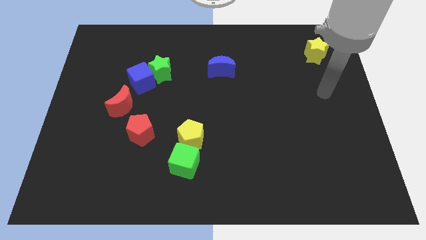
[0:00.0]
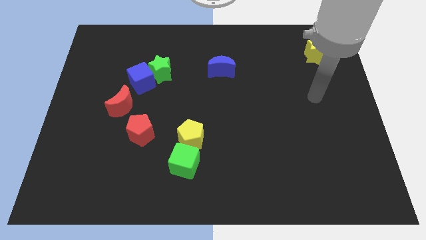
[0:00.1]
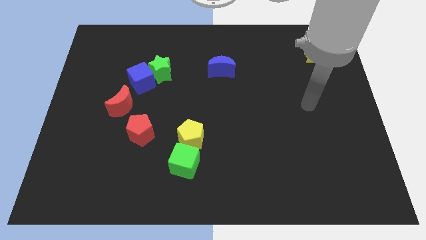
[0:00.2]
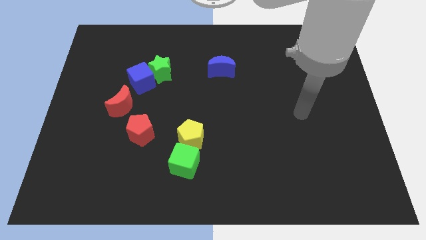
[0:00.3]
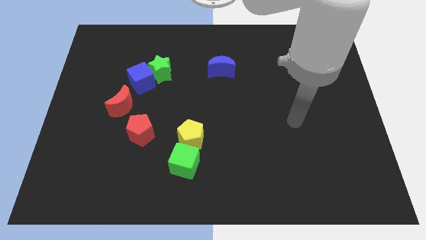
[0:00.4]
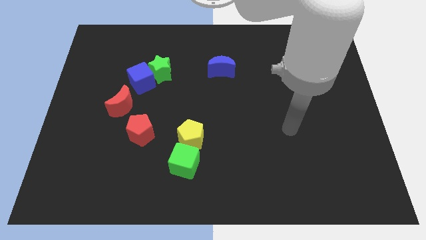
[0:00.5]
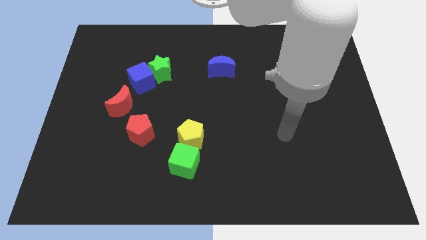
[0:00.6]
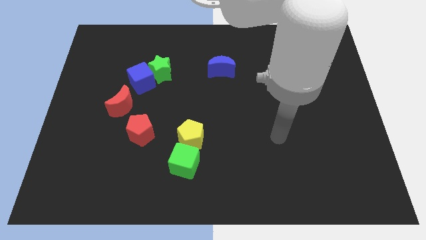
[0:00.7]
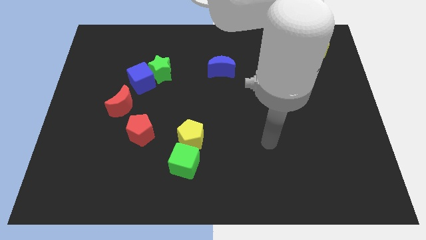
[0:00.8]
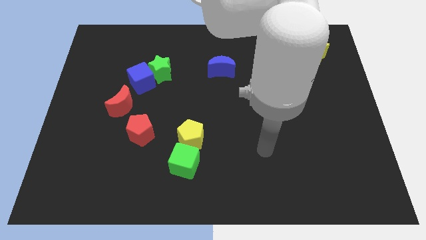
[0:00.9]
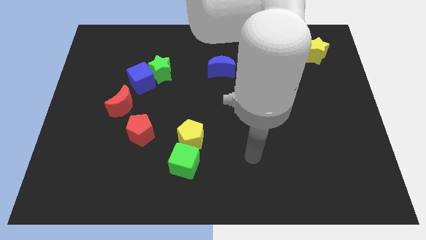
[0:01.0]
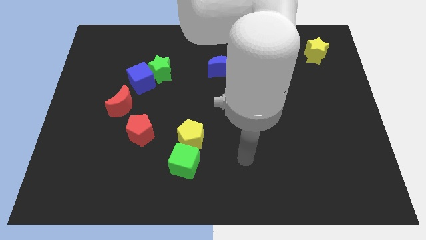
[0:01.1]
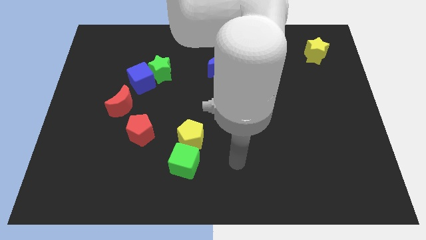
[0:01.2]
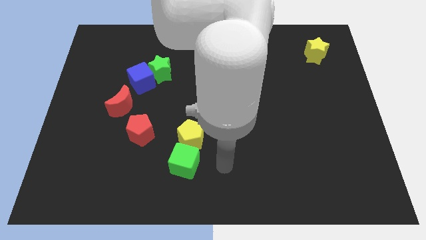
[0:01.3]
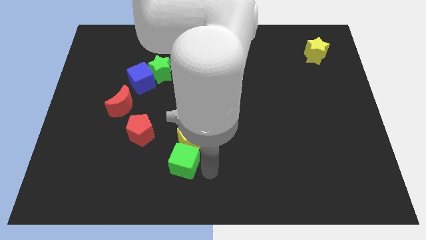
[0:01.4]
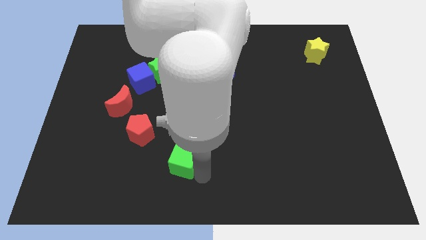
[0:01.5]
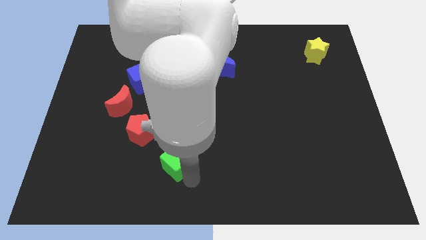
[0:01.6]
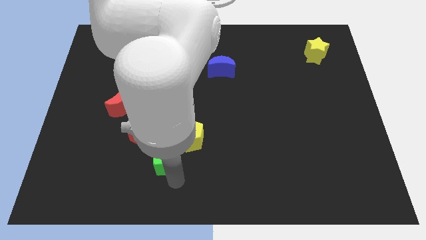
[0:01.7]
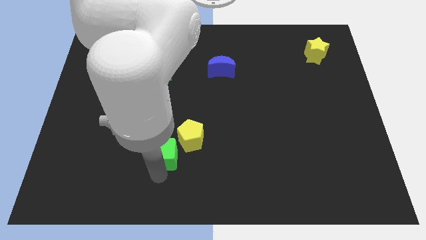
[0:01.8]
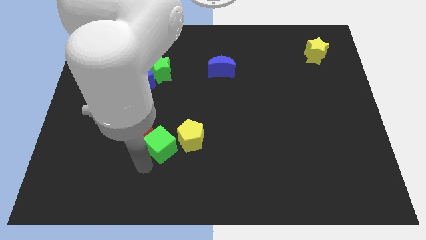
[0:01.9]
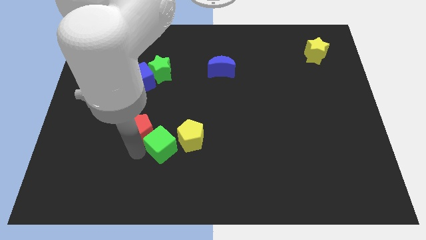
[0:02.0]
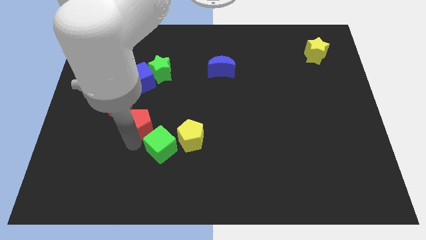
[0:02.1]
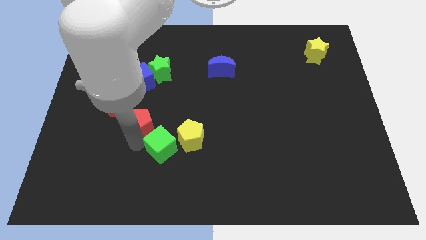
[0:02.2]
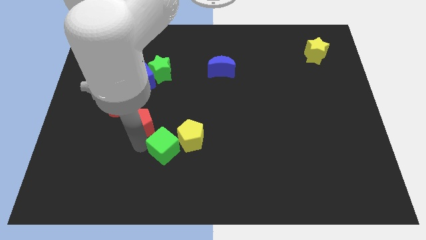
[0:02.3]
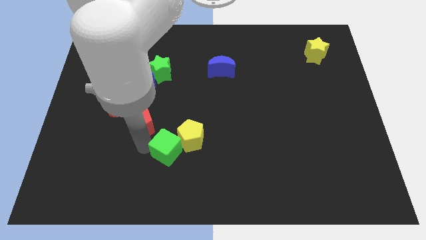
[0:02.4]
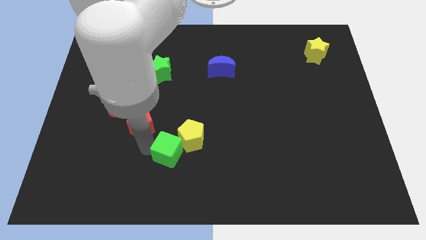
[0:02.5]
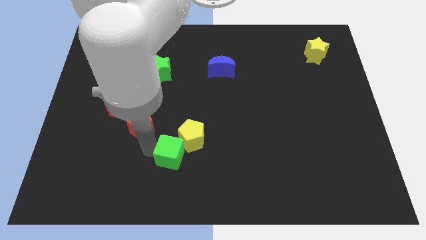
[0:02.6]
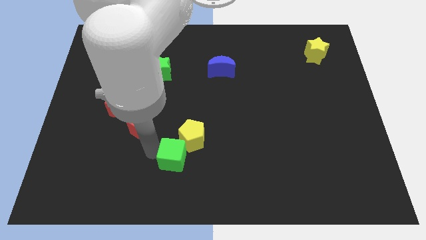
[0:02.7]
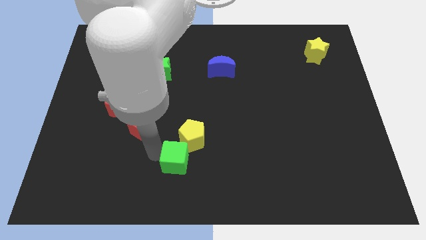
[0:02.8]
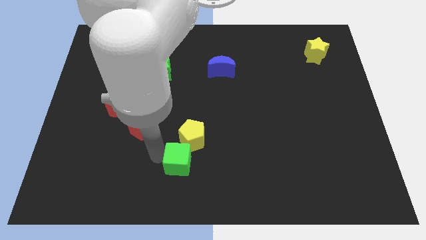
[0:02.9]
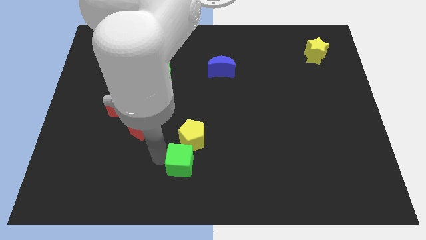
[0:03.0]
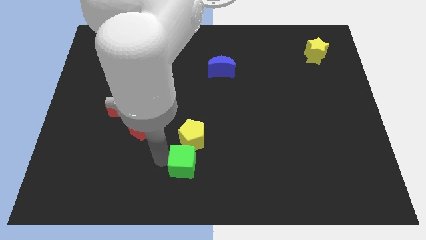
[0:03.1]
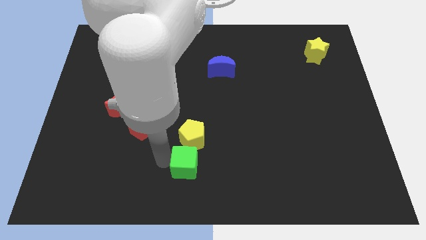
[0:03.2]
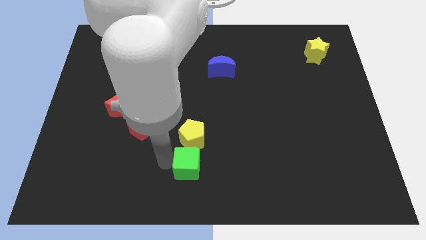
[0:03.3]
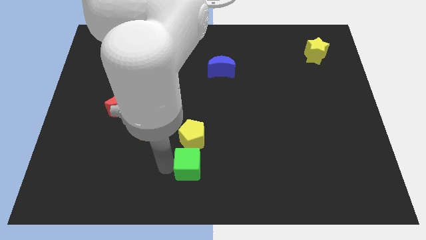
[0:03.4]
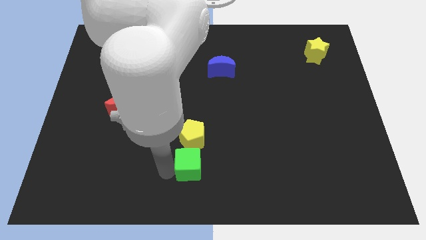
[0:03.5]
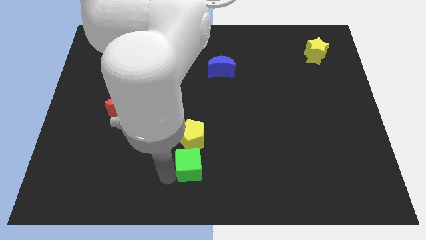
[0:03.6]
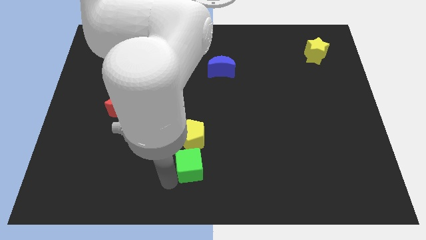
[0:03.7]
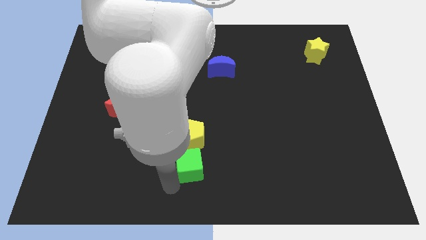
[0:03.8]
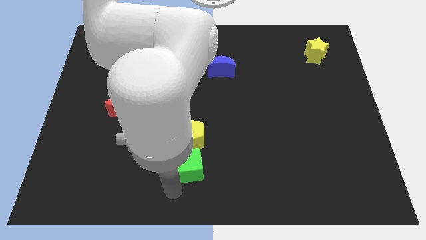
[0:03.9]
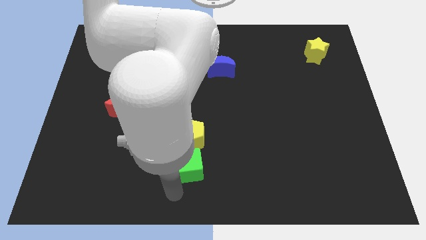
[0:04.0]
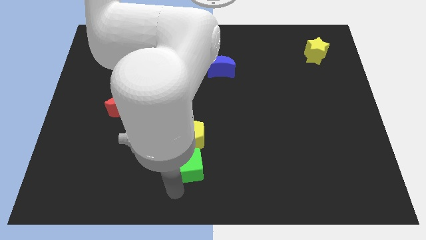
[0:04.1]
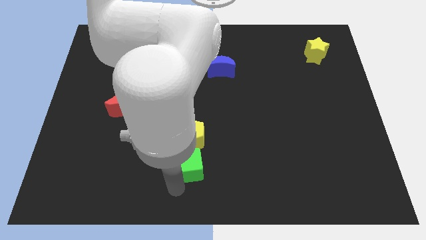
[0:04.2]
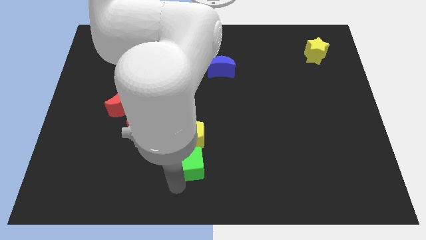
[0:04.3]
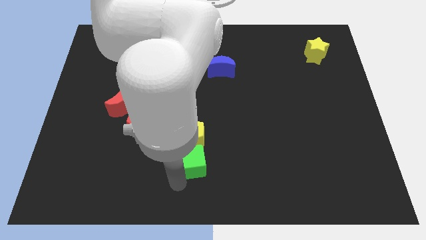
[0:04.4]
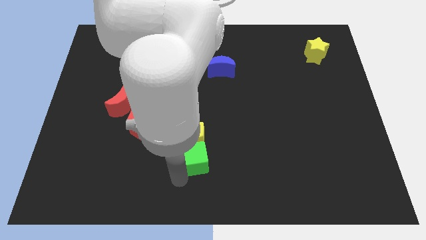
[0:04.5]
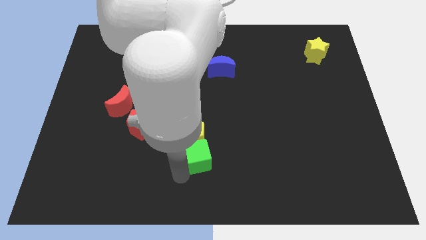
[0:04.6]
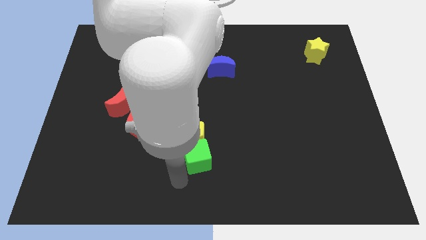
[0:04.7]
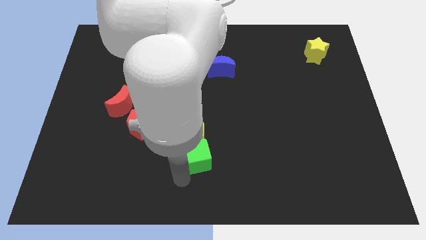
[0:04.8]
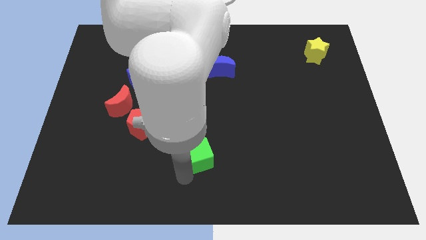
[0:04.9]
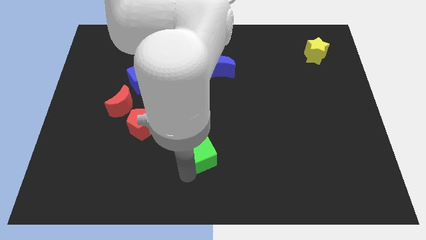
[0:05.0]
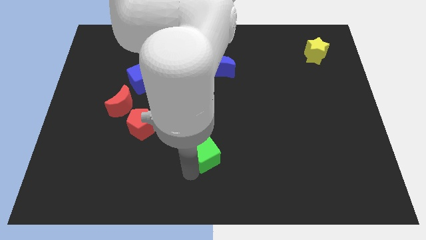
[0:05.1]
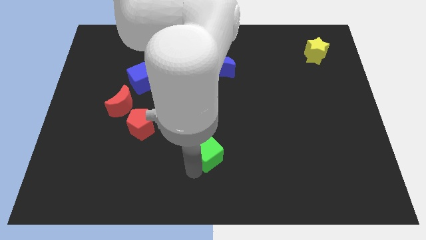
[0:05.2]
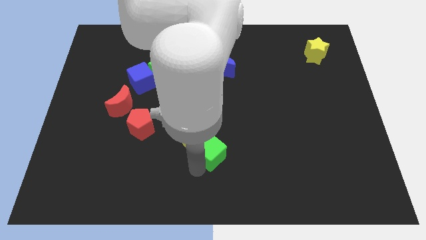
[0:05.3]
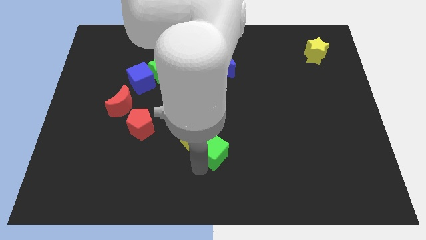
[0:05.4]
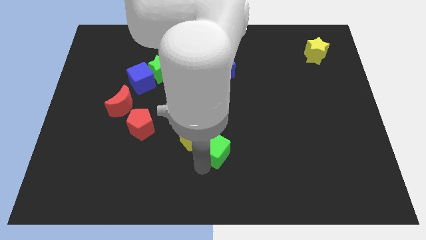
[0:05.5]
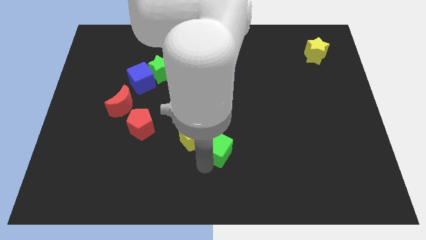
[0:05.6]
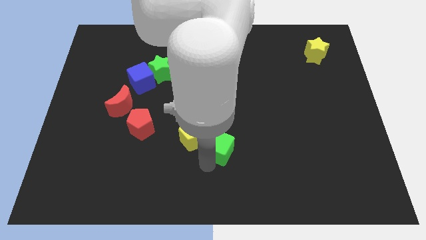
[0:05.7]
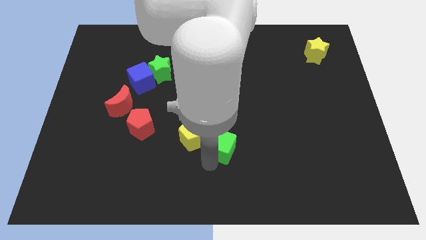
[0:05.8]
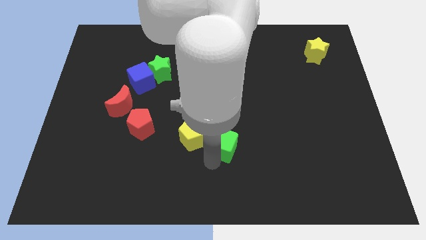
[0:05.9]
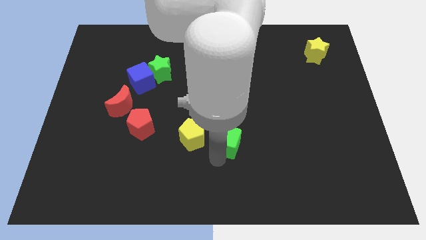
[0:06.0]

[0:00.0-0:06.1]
push the green cube to the middle

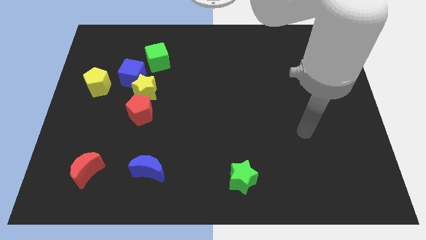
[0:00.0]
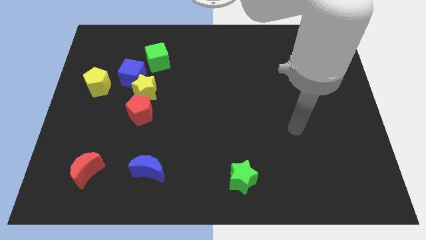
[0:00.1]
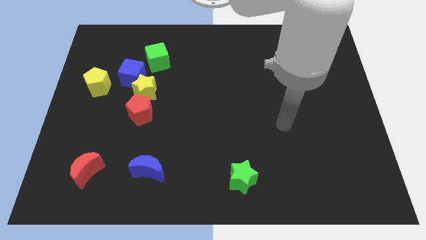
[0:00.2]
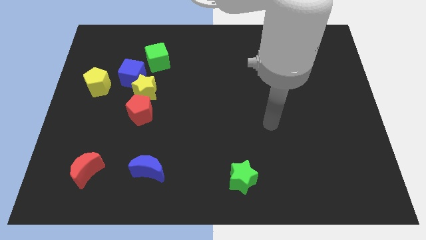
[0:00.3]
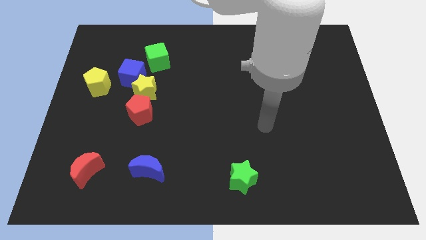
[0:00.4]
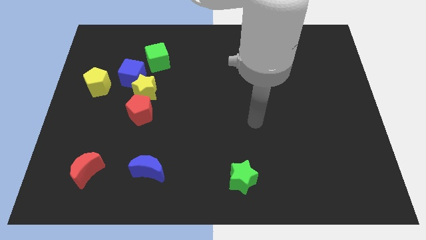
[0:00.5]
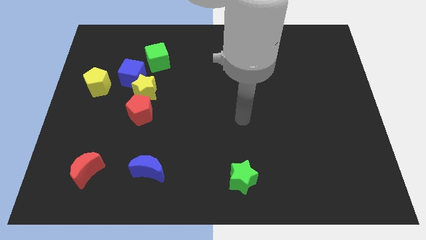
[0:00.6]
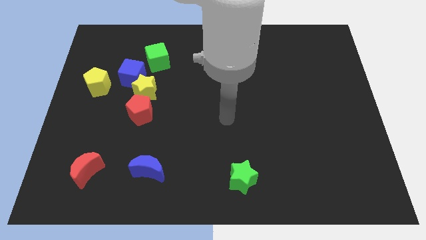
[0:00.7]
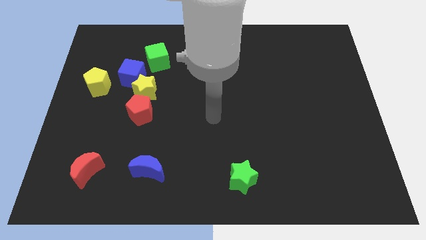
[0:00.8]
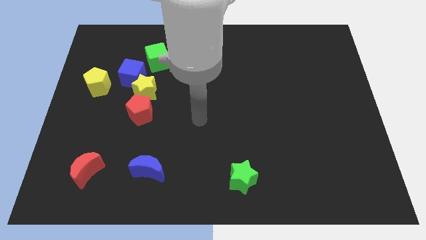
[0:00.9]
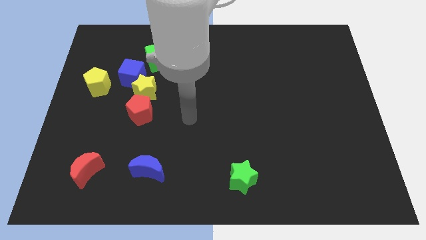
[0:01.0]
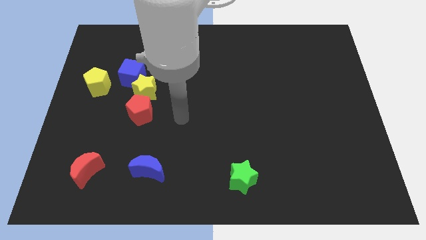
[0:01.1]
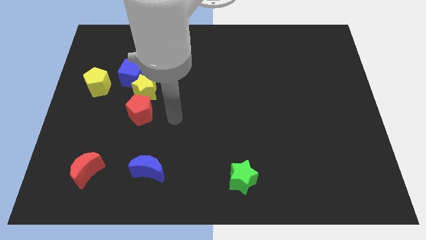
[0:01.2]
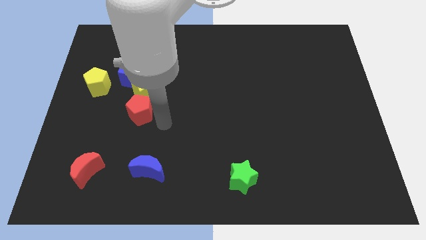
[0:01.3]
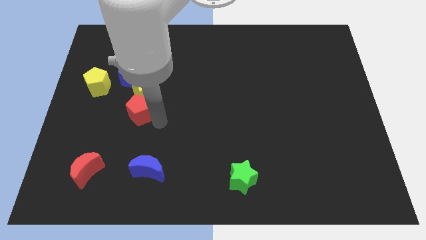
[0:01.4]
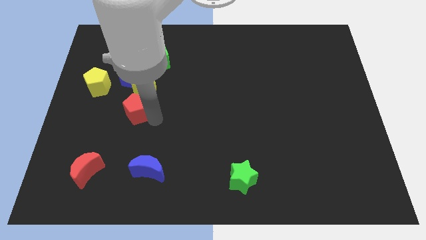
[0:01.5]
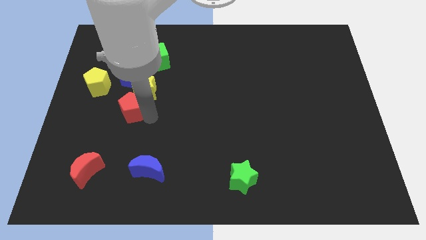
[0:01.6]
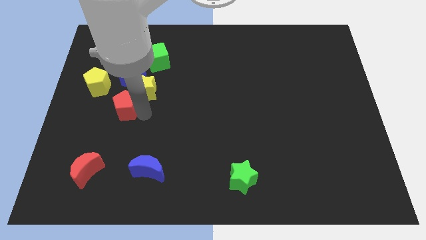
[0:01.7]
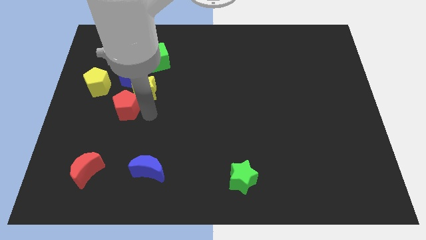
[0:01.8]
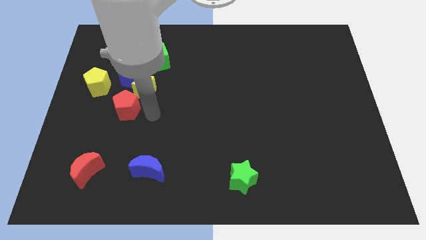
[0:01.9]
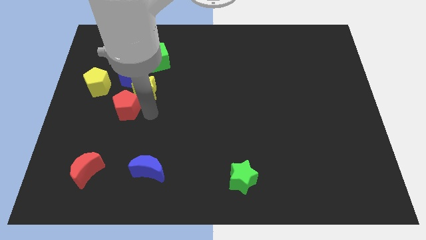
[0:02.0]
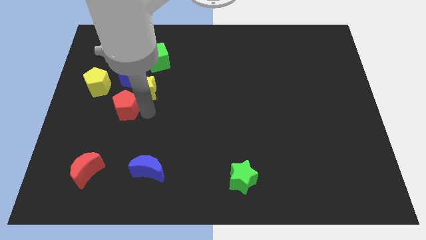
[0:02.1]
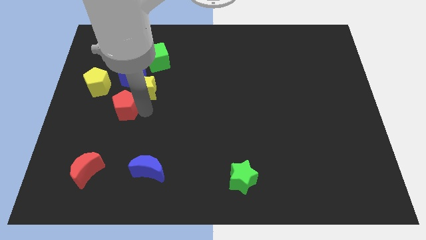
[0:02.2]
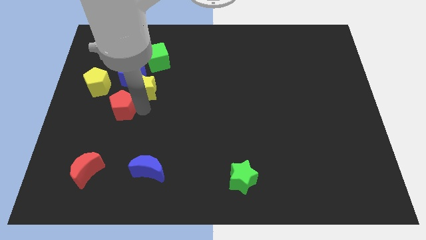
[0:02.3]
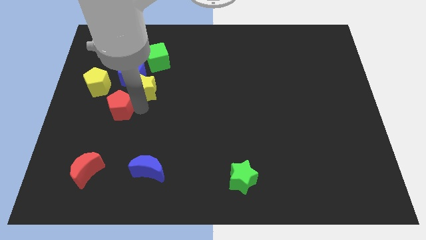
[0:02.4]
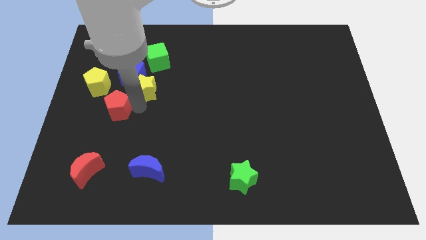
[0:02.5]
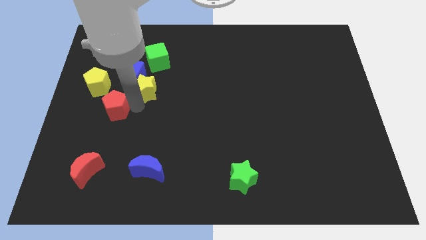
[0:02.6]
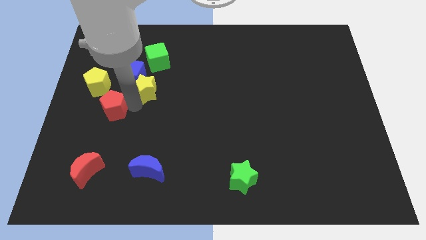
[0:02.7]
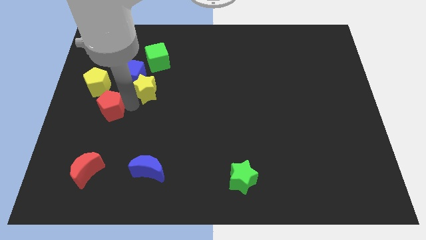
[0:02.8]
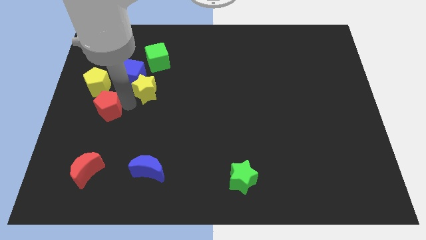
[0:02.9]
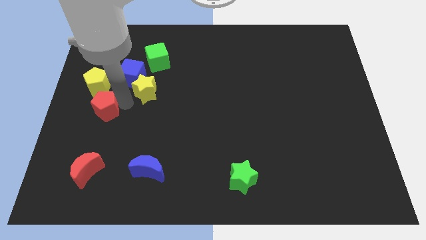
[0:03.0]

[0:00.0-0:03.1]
slide the red pentagon to the center left
